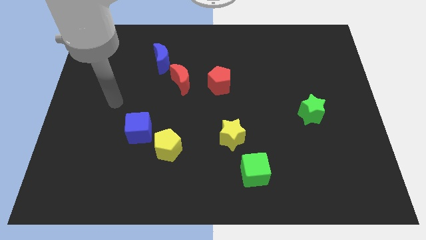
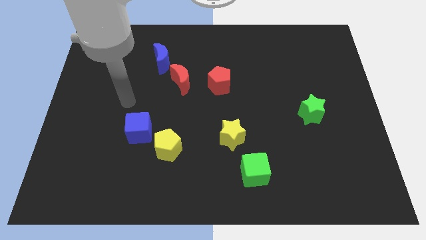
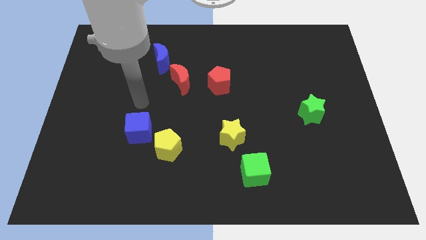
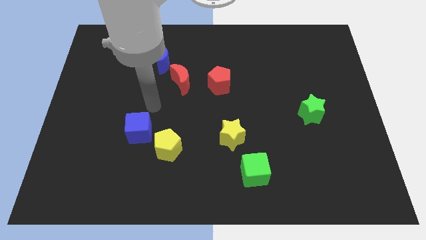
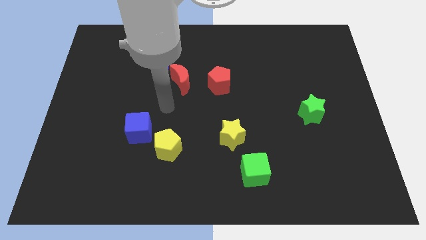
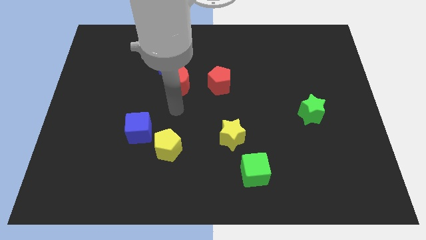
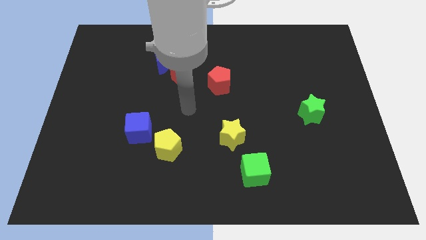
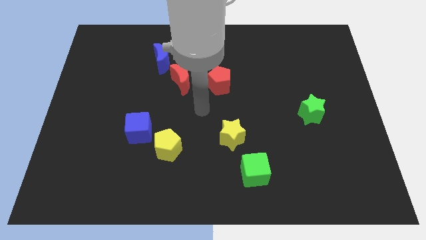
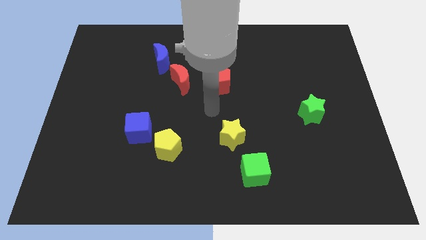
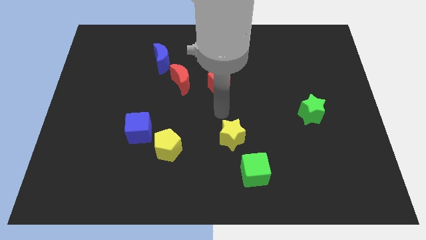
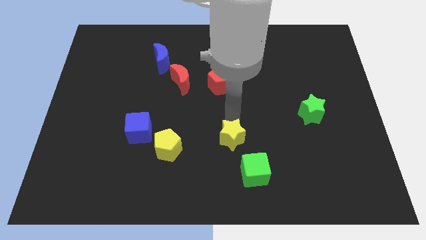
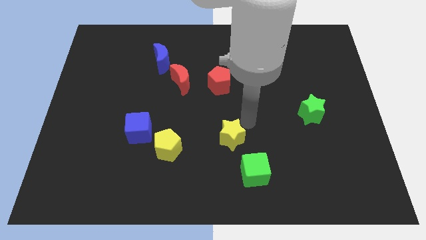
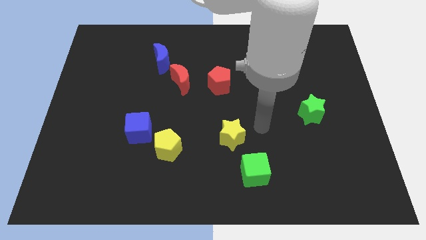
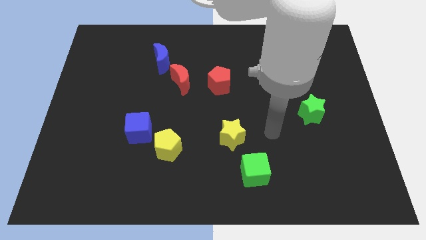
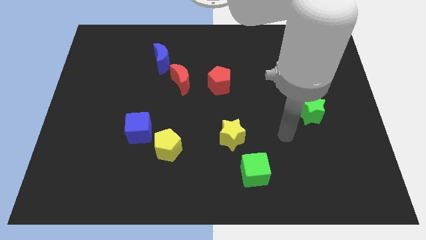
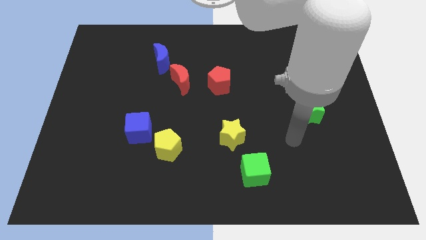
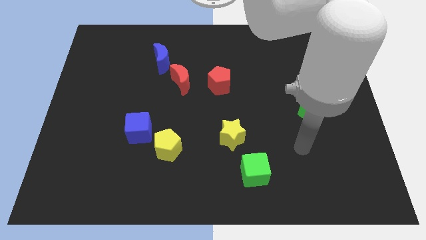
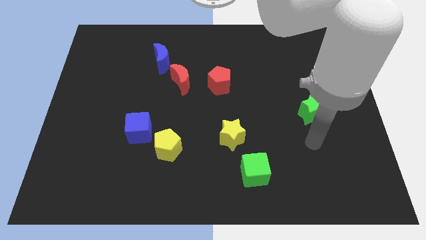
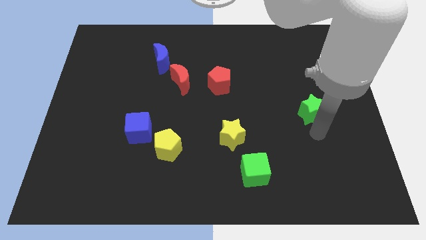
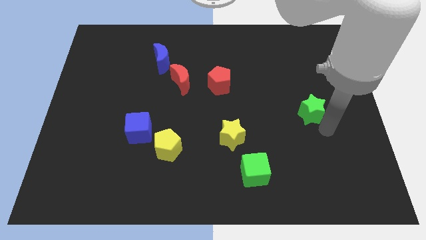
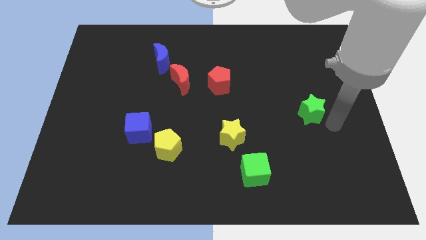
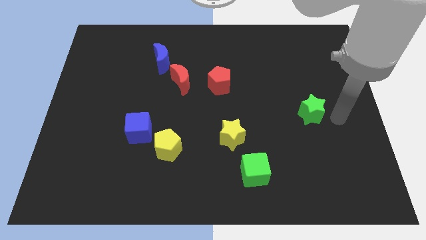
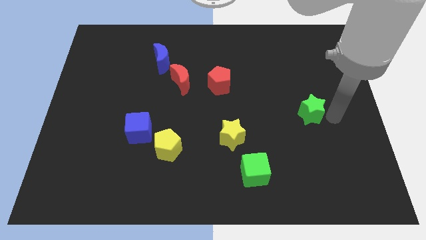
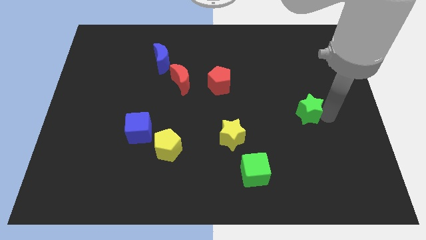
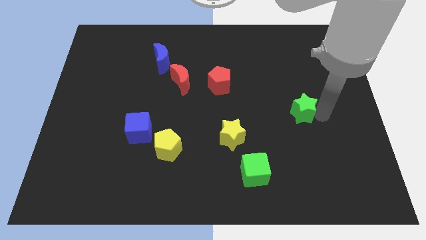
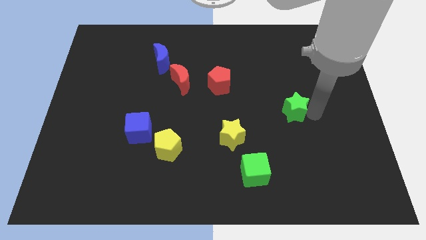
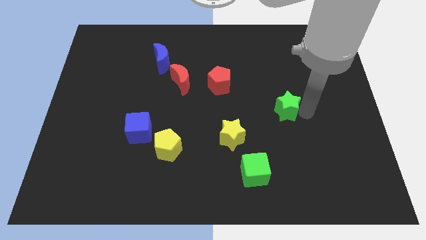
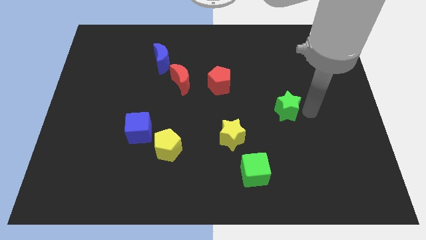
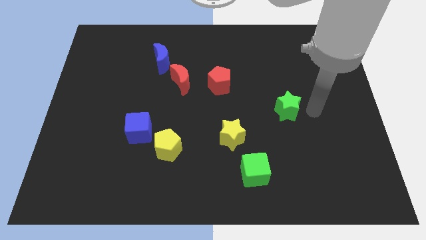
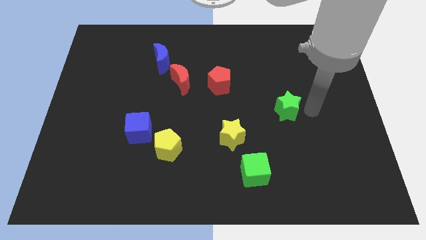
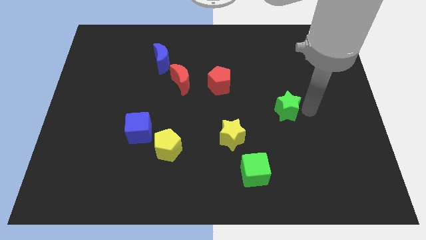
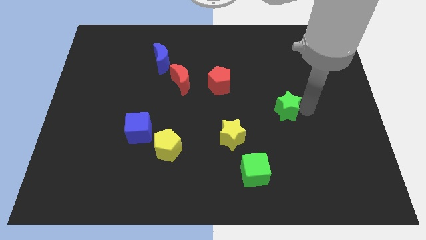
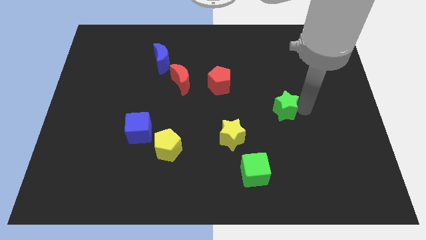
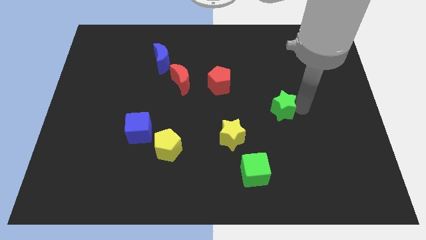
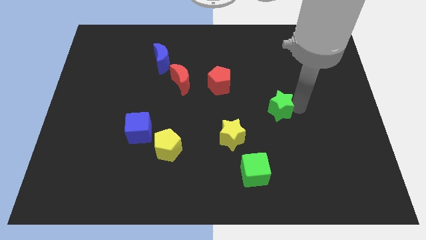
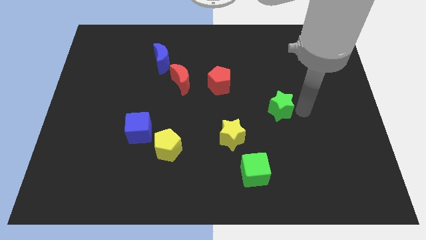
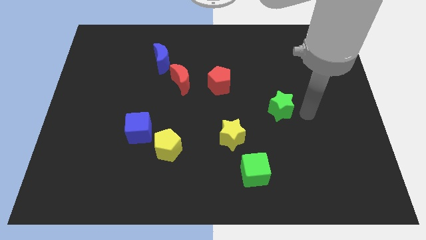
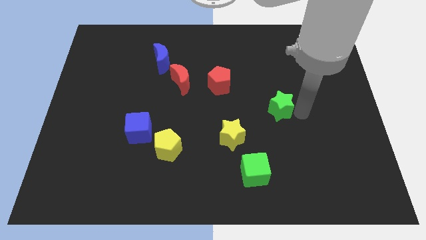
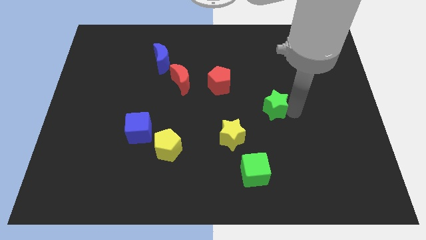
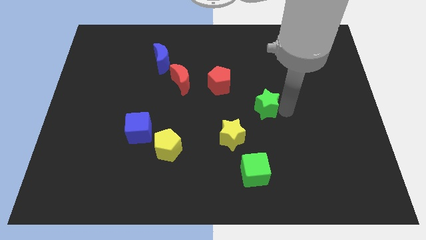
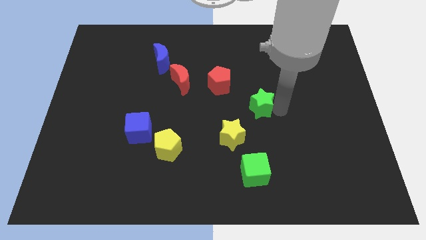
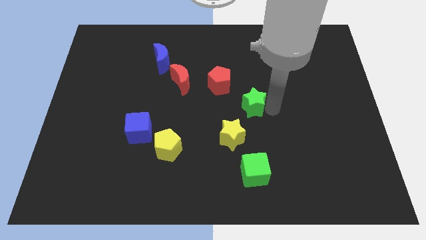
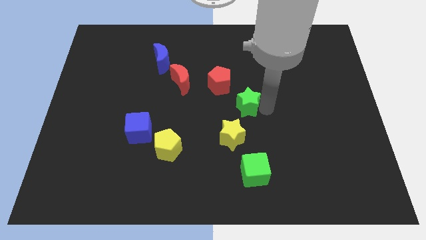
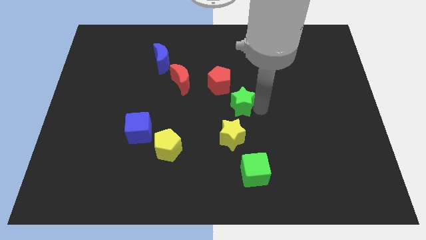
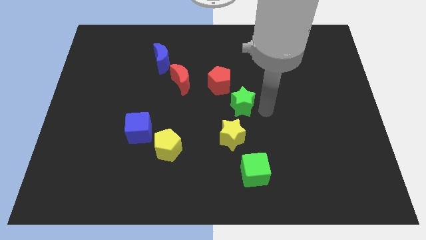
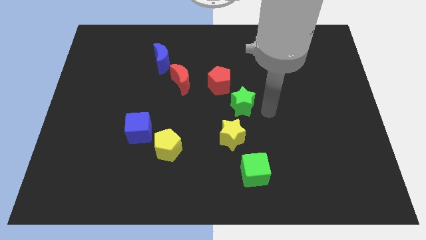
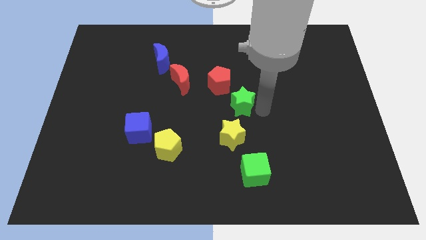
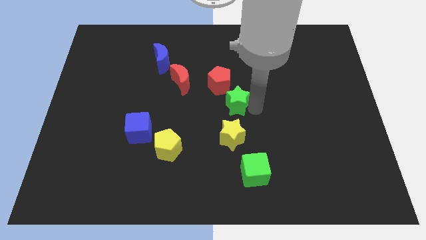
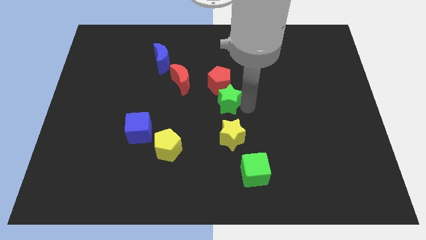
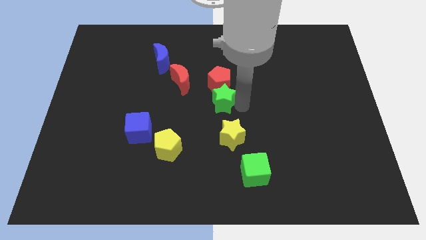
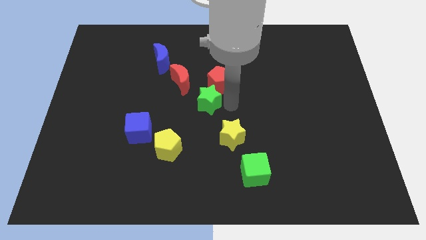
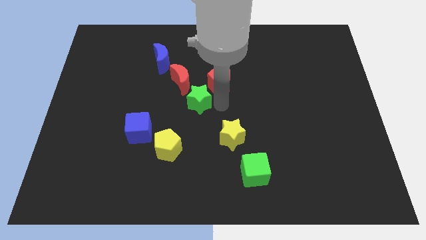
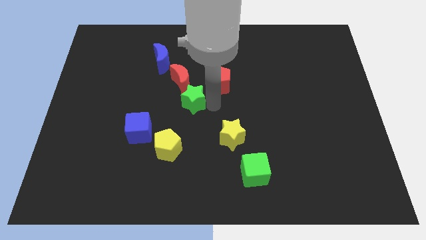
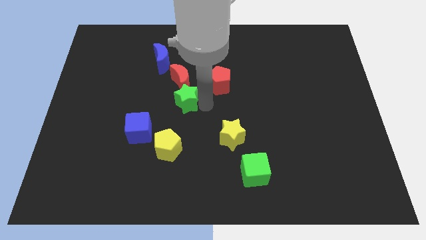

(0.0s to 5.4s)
move the green star to the red moon

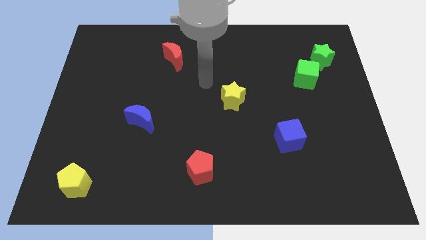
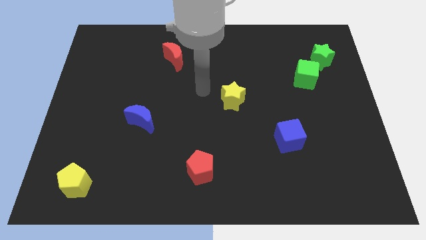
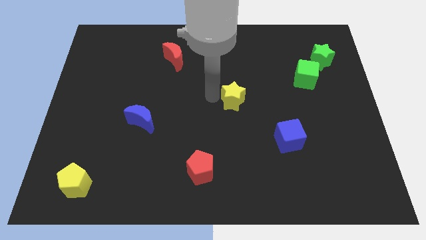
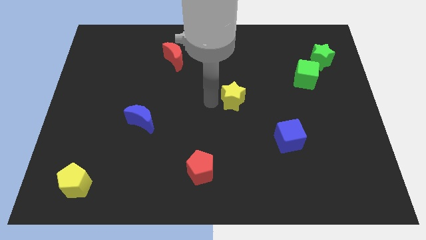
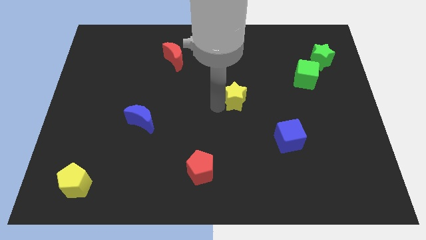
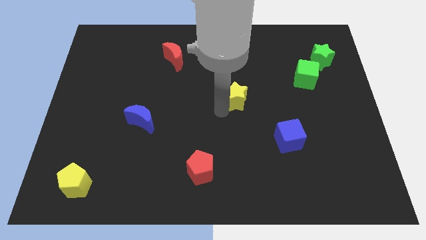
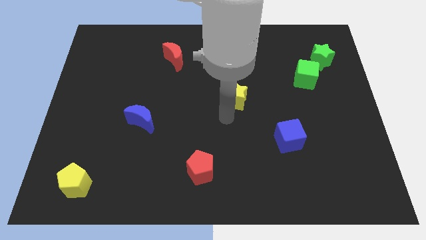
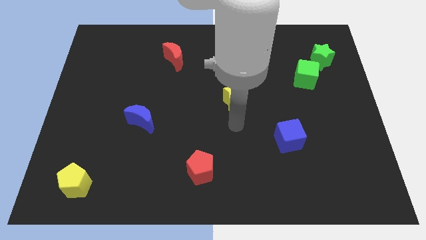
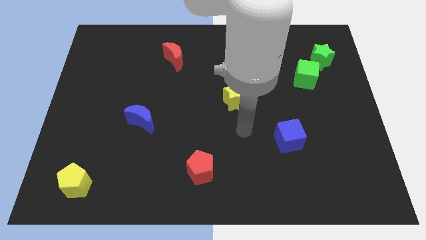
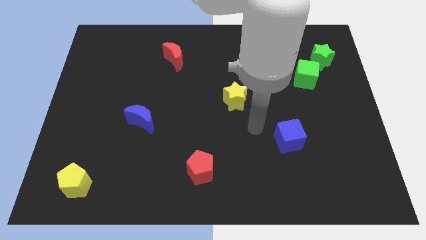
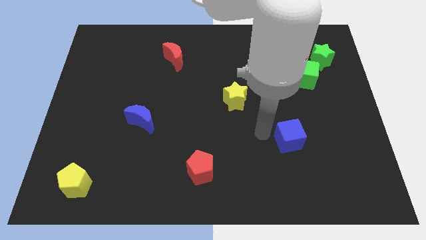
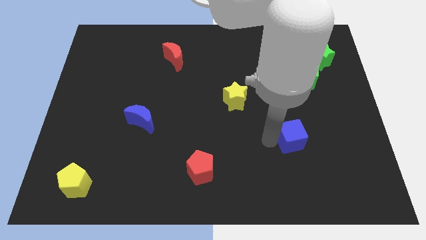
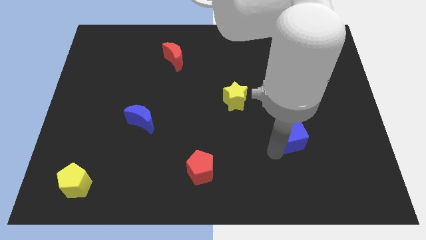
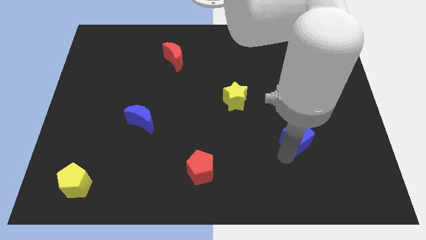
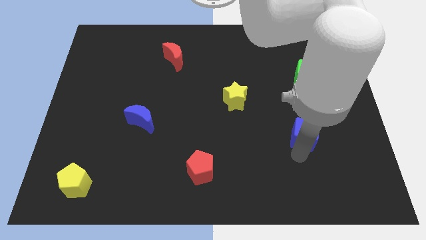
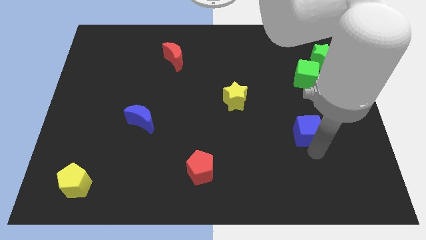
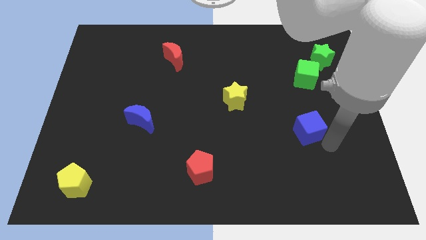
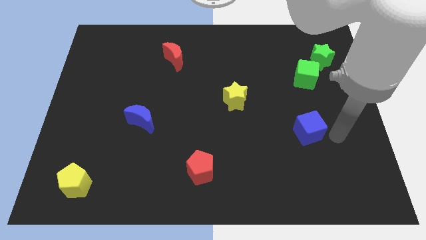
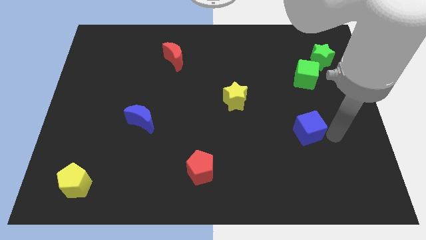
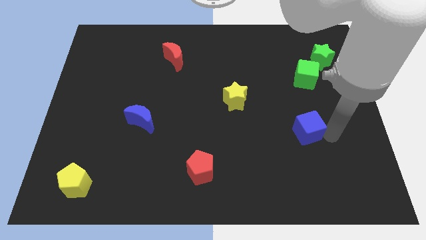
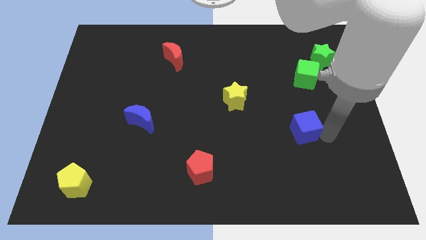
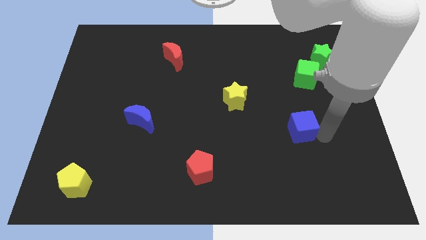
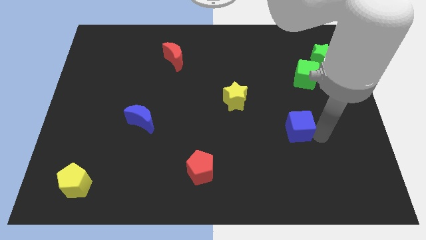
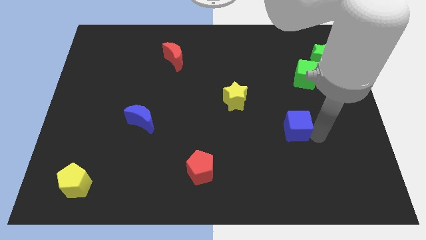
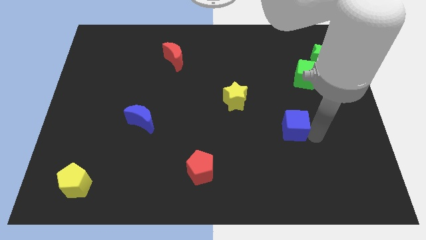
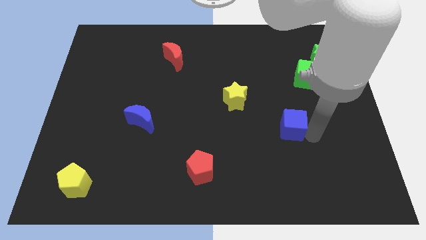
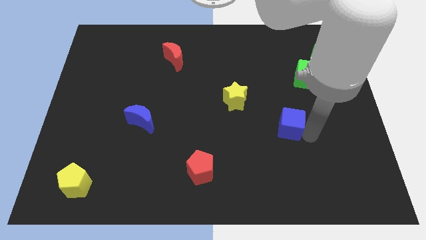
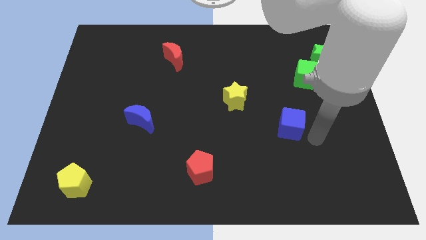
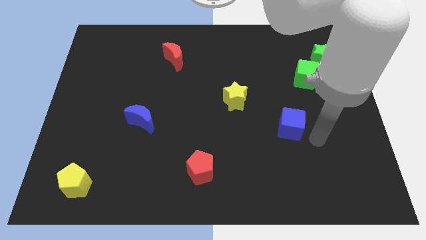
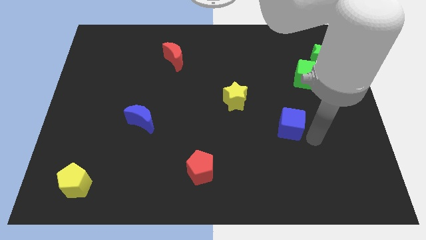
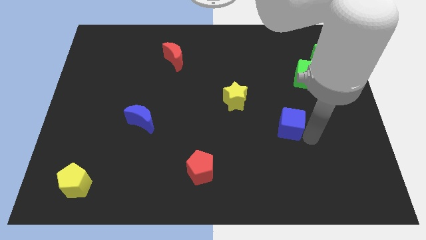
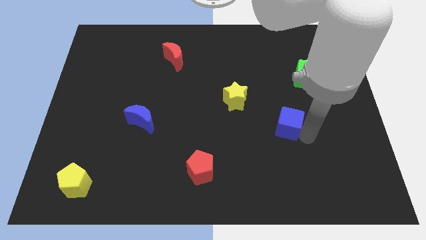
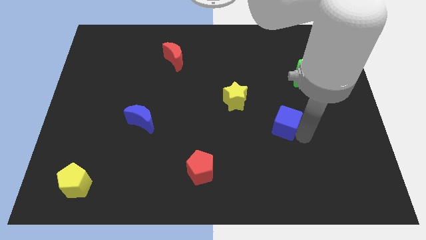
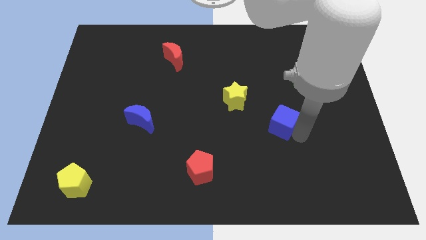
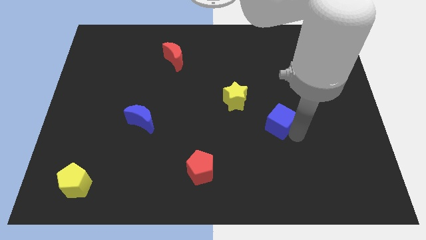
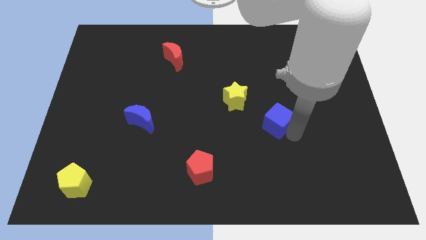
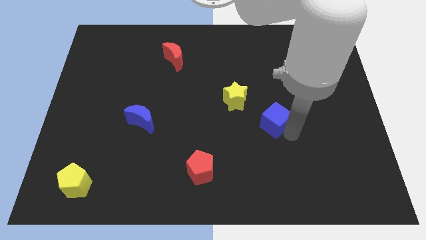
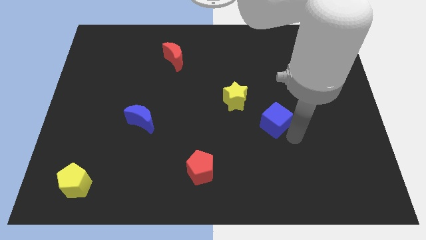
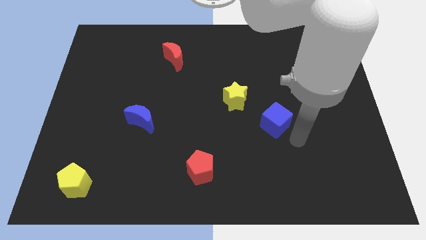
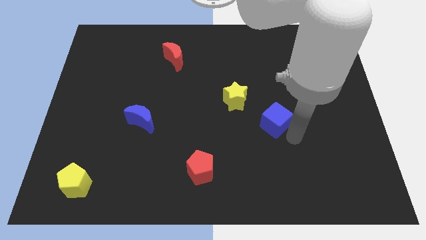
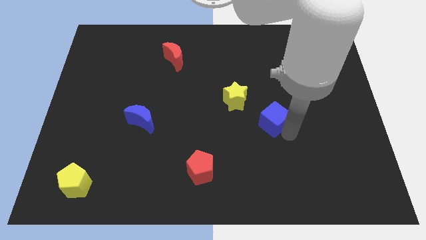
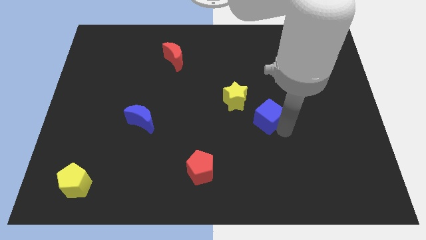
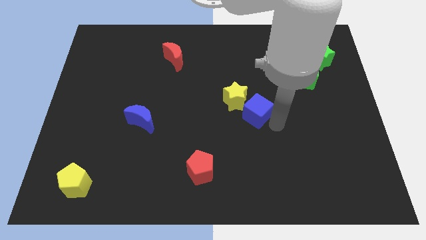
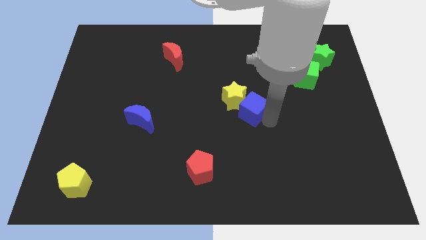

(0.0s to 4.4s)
put the blue cube next to the yellow star
